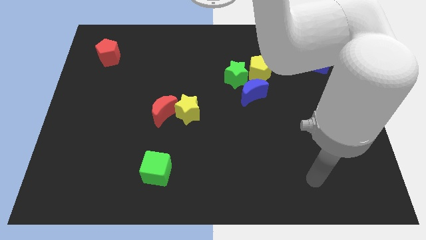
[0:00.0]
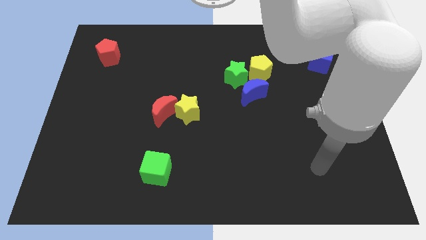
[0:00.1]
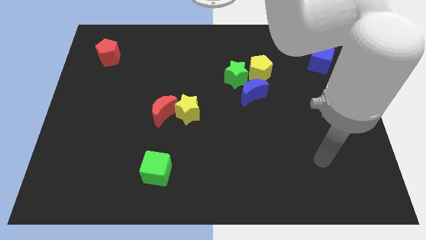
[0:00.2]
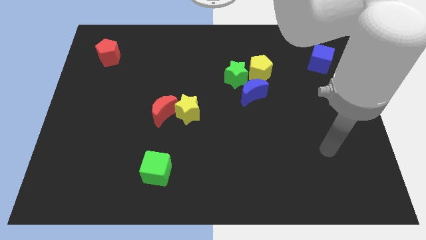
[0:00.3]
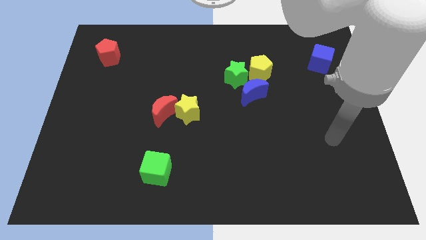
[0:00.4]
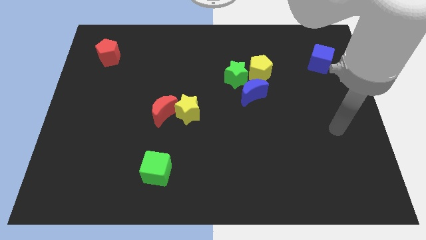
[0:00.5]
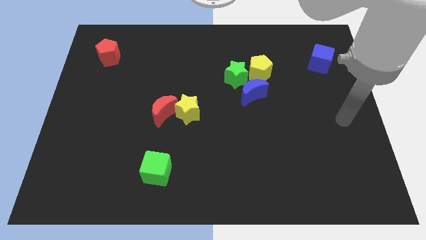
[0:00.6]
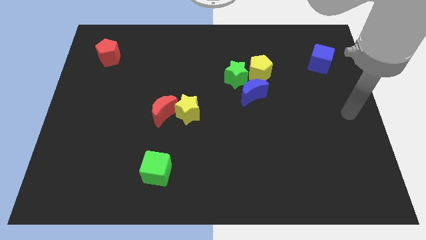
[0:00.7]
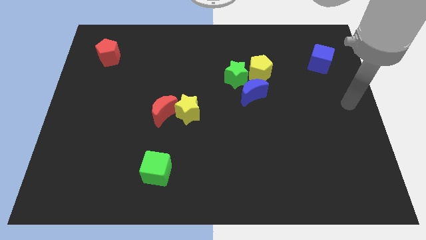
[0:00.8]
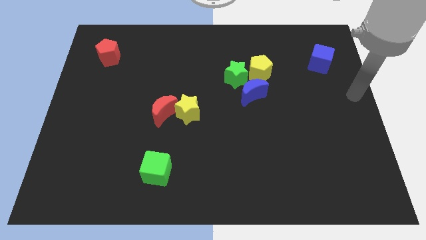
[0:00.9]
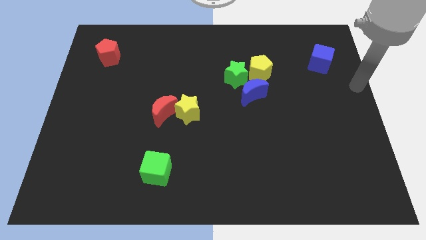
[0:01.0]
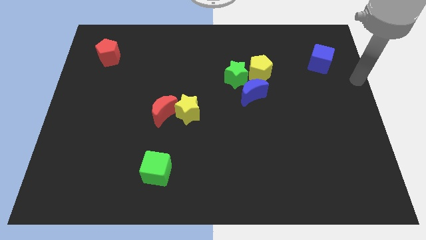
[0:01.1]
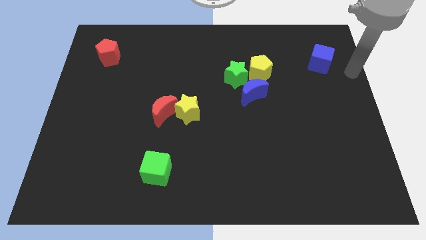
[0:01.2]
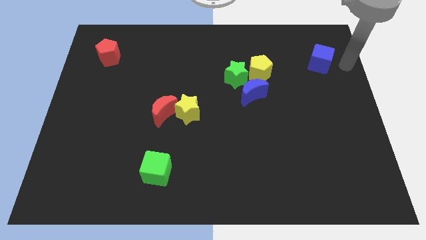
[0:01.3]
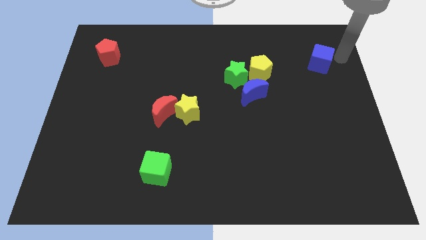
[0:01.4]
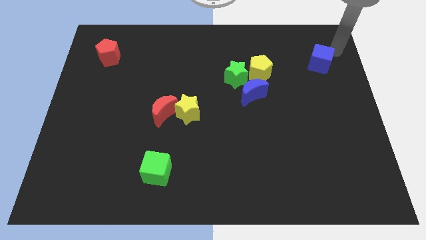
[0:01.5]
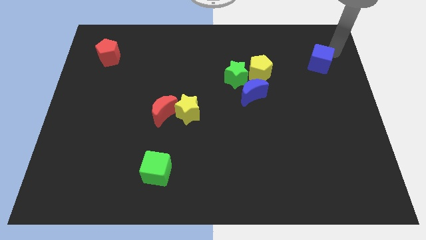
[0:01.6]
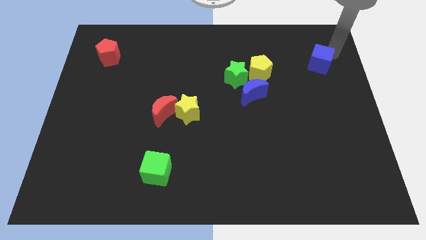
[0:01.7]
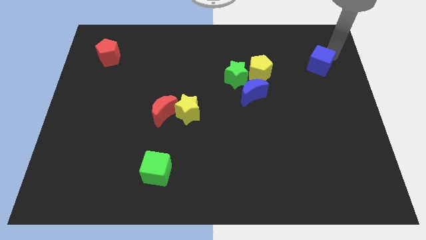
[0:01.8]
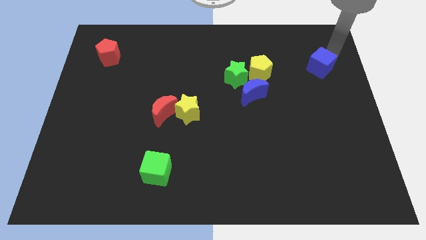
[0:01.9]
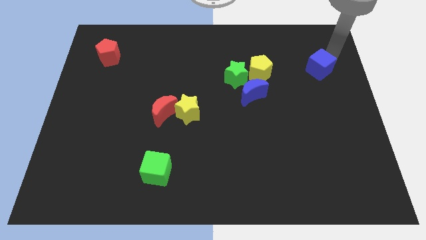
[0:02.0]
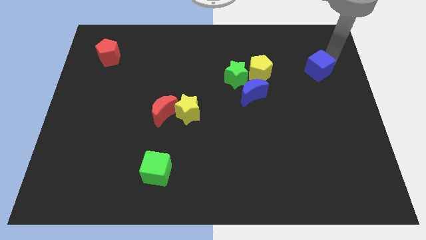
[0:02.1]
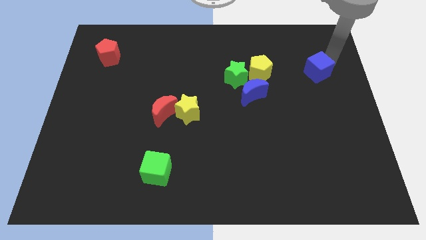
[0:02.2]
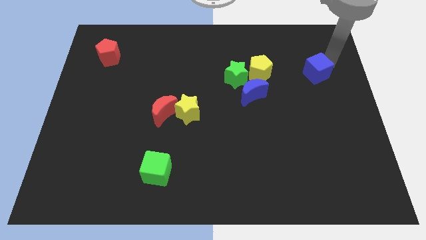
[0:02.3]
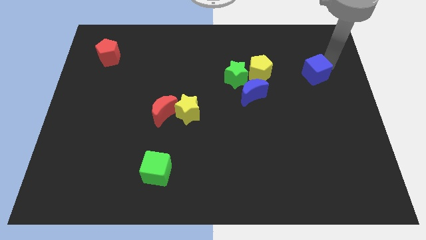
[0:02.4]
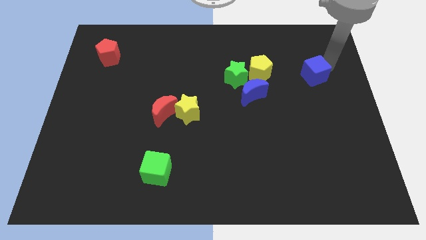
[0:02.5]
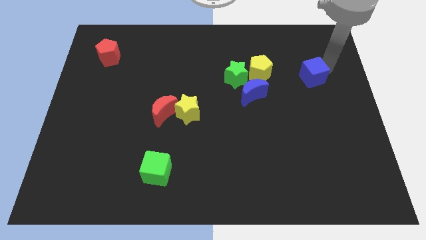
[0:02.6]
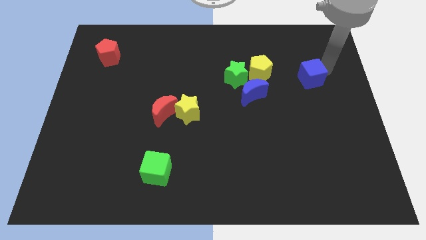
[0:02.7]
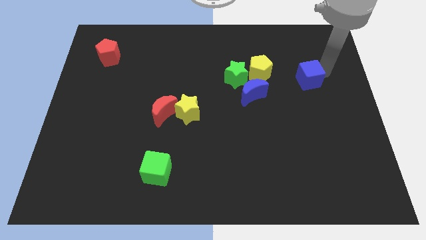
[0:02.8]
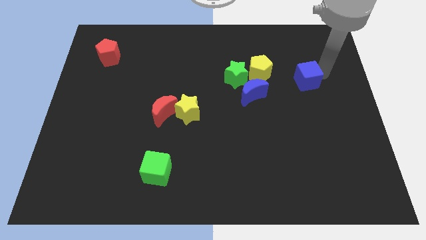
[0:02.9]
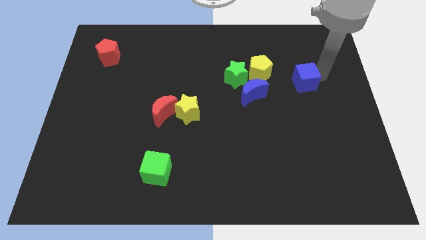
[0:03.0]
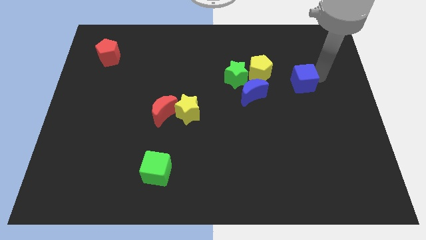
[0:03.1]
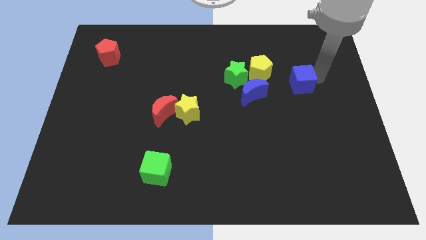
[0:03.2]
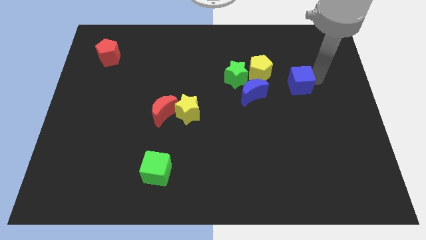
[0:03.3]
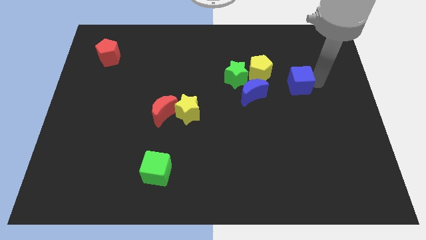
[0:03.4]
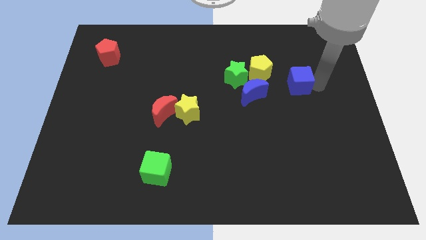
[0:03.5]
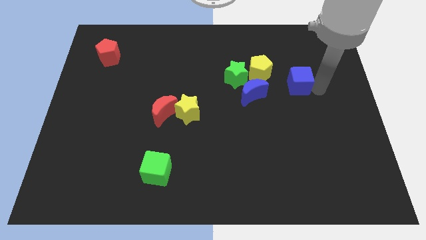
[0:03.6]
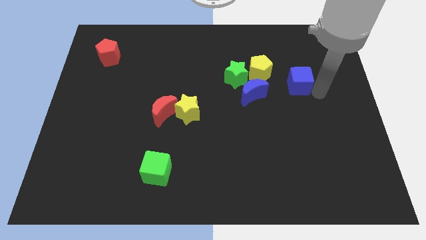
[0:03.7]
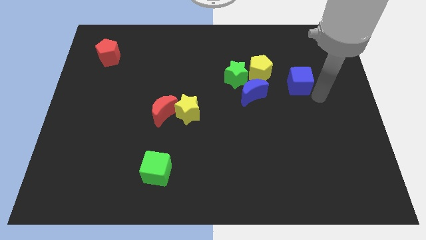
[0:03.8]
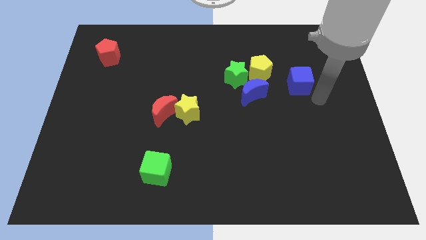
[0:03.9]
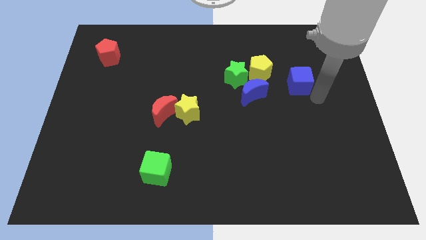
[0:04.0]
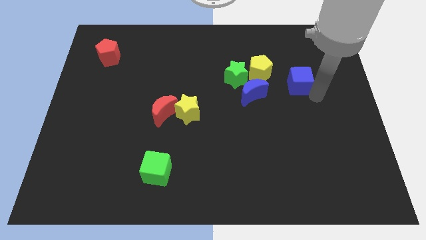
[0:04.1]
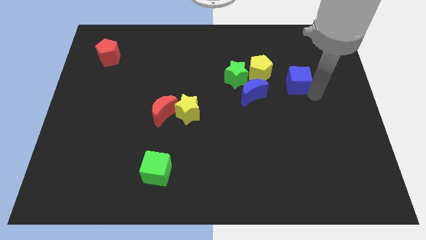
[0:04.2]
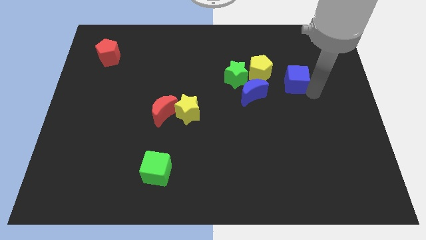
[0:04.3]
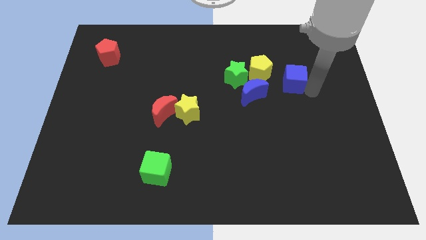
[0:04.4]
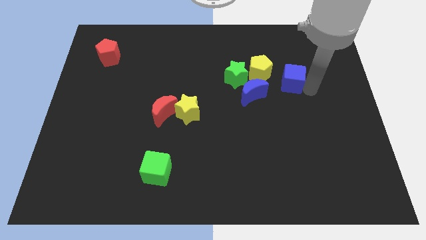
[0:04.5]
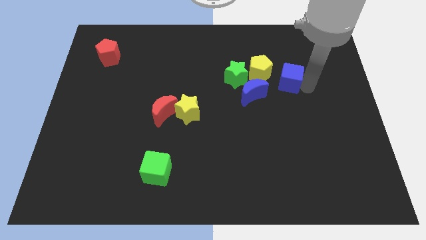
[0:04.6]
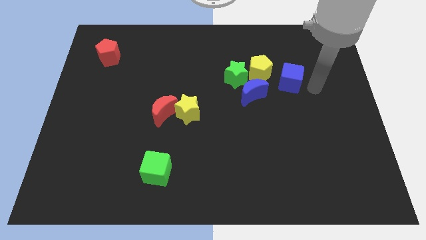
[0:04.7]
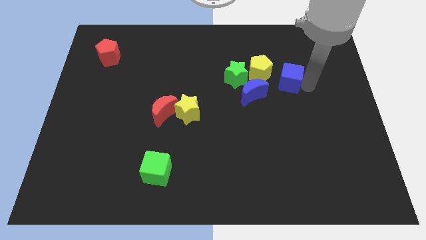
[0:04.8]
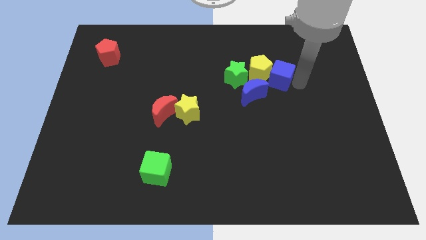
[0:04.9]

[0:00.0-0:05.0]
slide the blue cube to the yellow pentagon

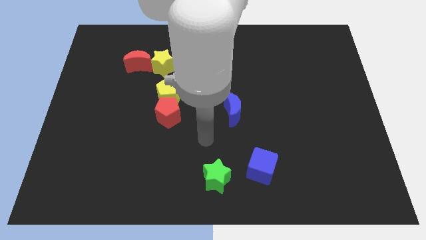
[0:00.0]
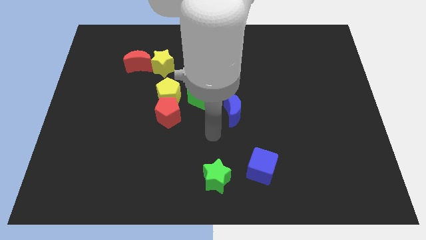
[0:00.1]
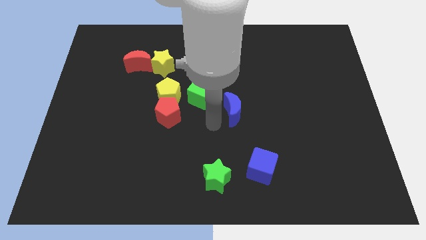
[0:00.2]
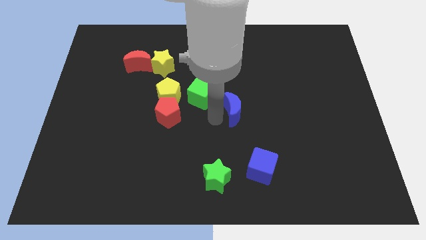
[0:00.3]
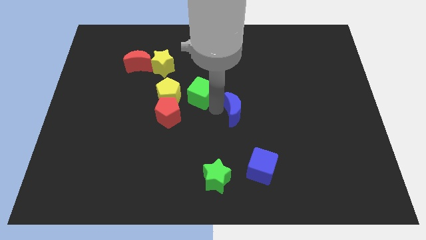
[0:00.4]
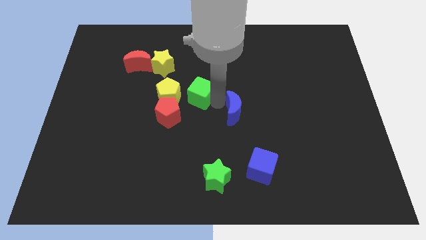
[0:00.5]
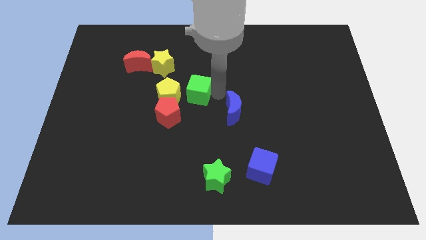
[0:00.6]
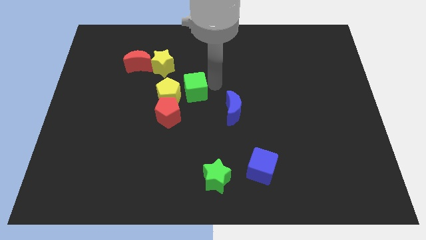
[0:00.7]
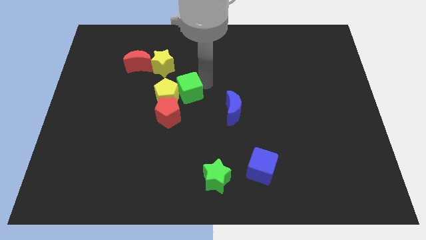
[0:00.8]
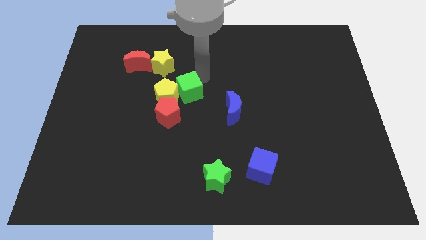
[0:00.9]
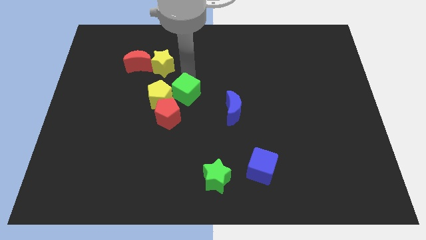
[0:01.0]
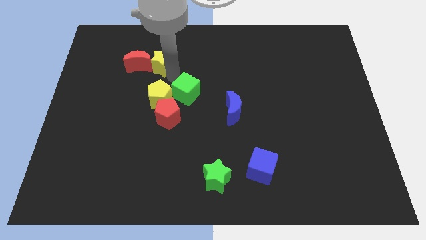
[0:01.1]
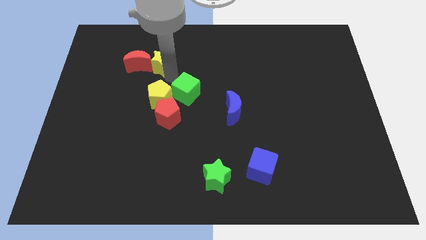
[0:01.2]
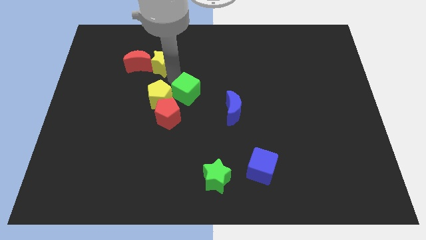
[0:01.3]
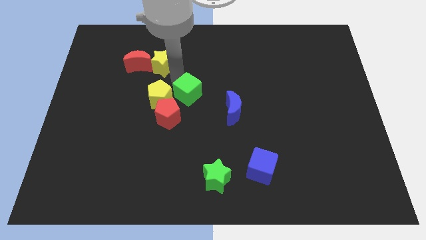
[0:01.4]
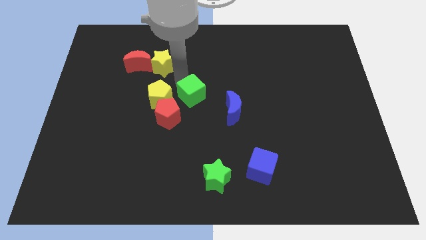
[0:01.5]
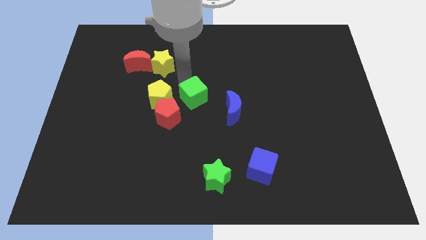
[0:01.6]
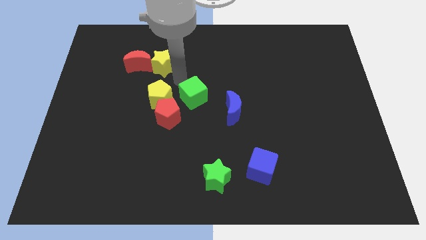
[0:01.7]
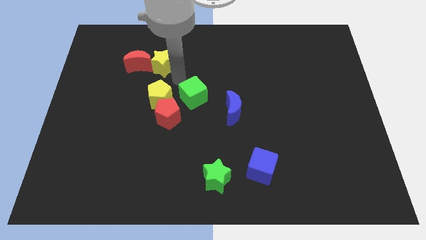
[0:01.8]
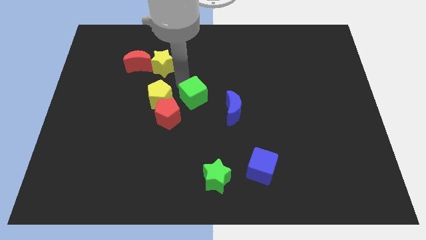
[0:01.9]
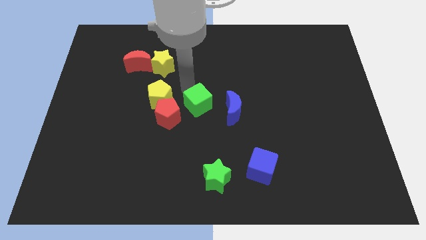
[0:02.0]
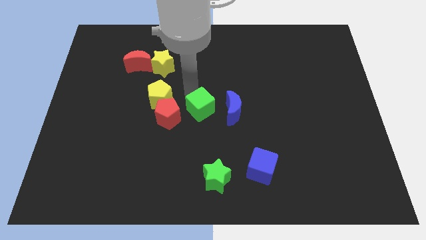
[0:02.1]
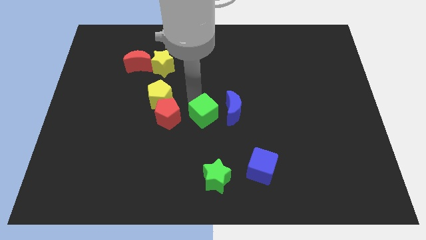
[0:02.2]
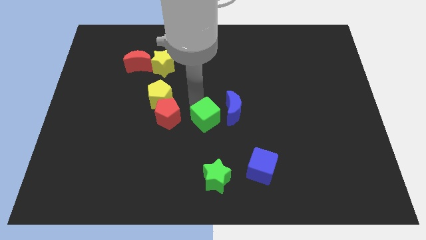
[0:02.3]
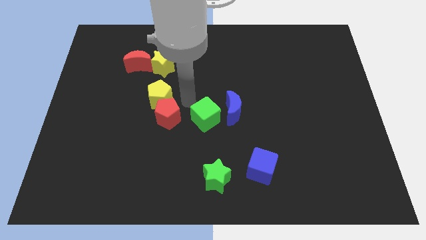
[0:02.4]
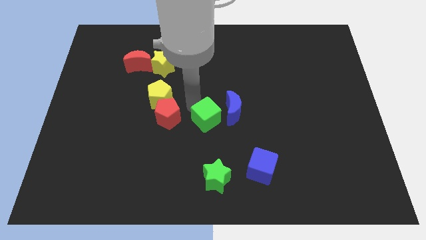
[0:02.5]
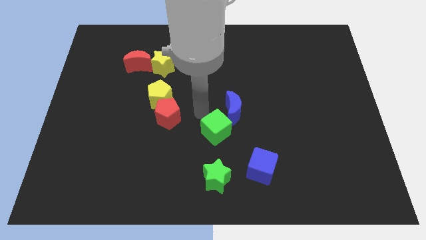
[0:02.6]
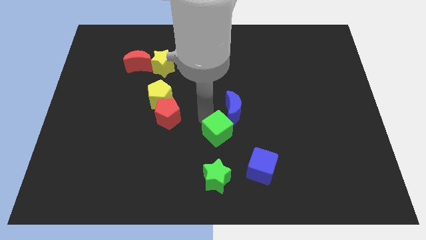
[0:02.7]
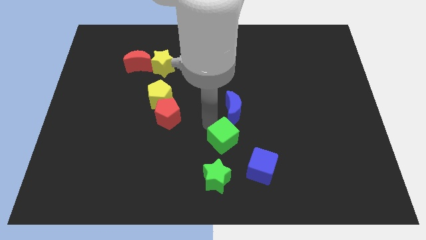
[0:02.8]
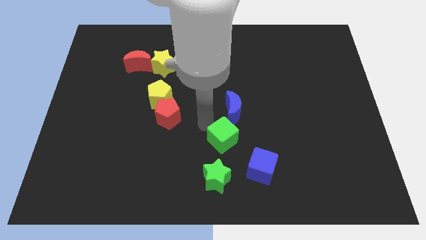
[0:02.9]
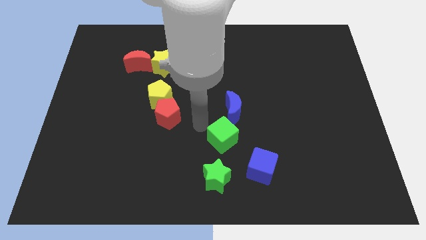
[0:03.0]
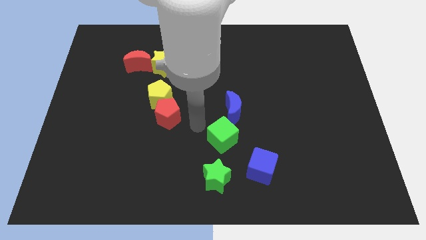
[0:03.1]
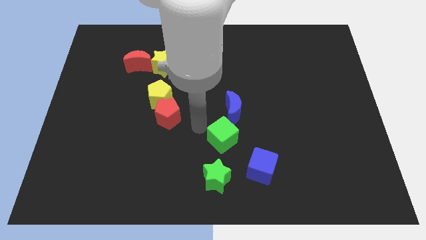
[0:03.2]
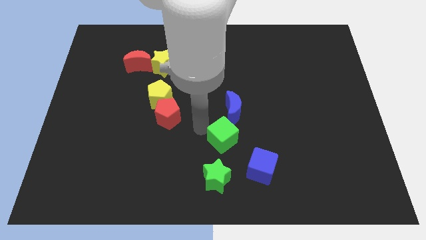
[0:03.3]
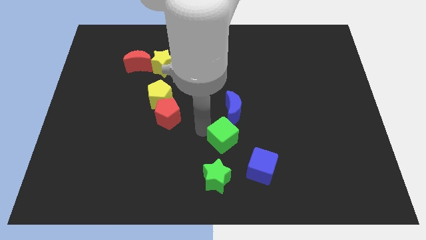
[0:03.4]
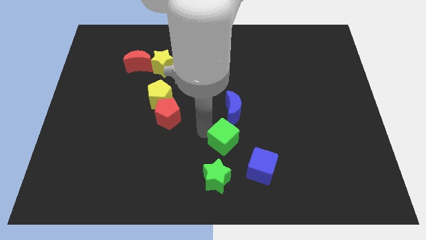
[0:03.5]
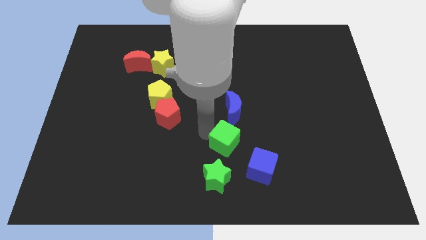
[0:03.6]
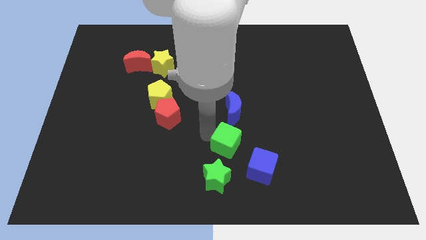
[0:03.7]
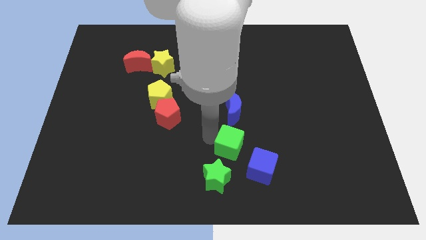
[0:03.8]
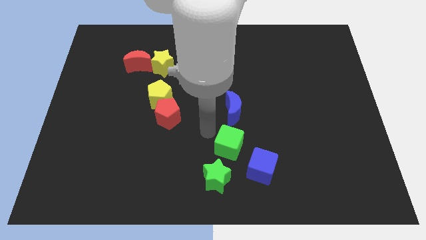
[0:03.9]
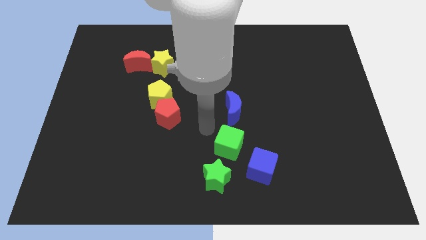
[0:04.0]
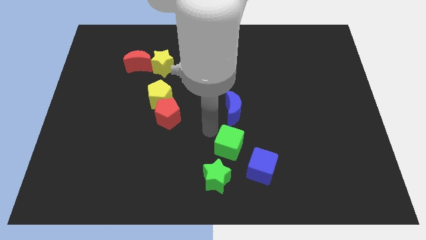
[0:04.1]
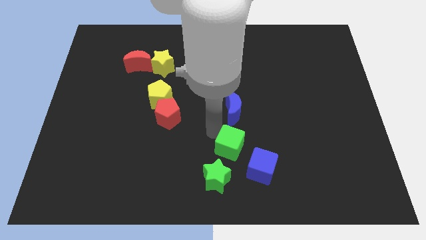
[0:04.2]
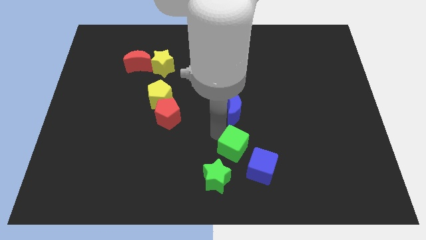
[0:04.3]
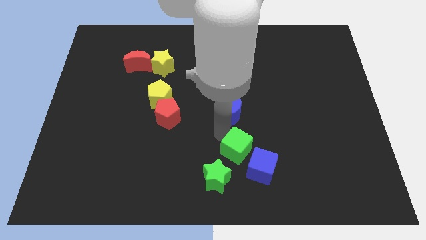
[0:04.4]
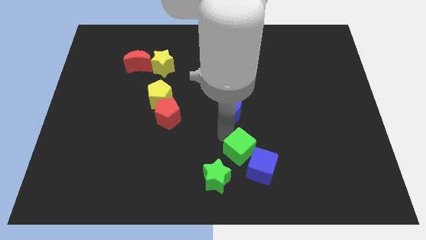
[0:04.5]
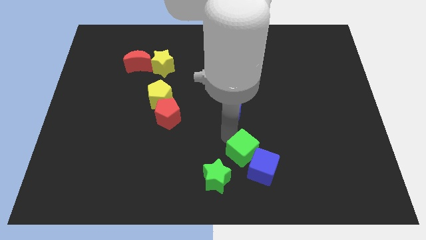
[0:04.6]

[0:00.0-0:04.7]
slide the green cube to the blue cube
